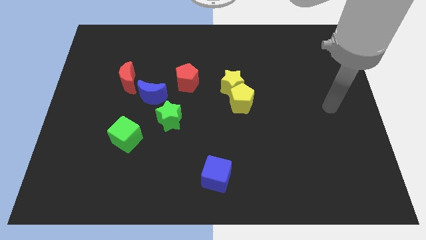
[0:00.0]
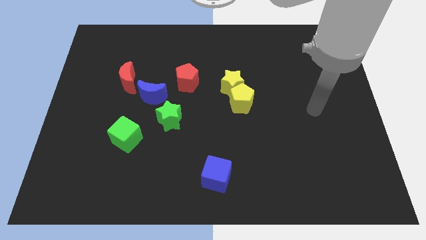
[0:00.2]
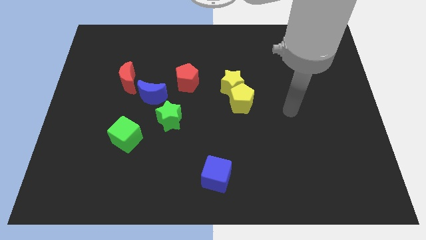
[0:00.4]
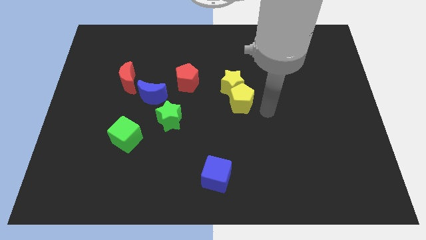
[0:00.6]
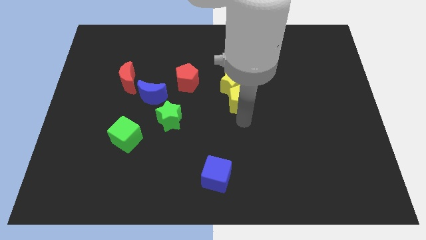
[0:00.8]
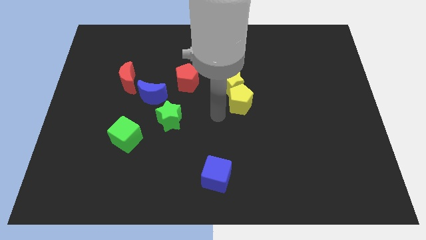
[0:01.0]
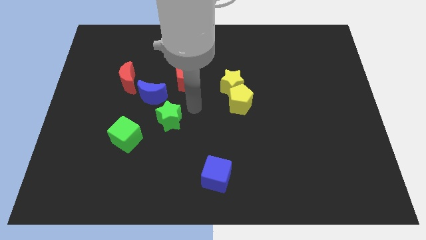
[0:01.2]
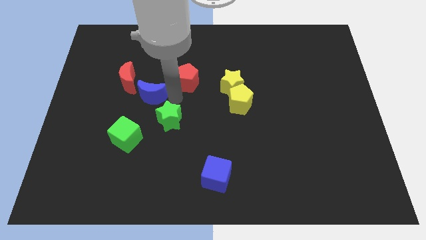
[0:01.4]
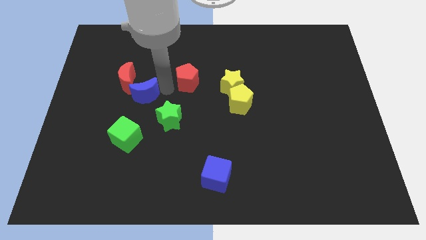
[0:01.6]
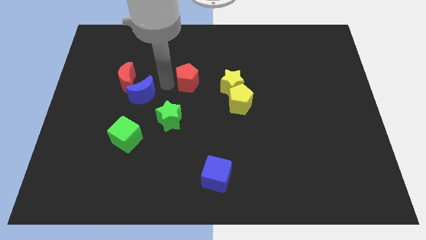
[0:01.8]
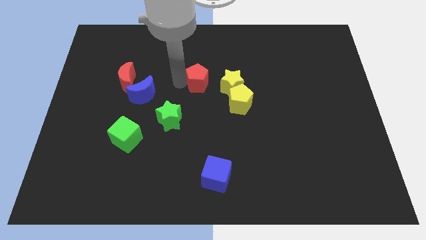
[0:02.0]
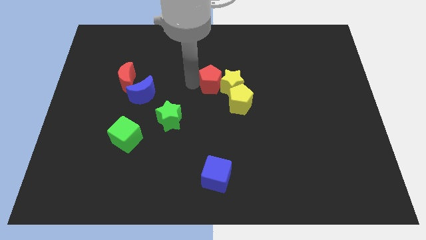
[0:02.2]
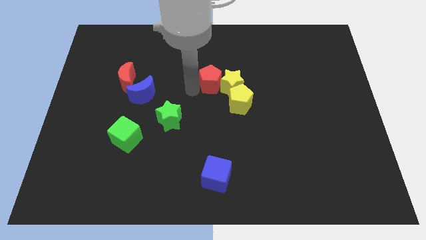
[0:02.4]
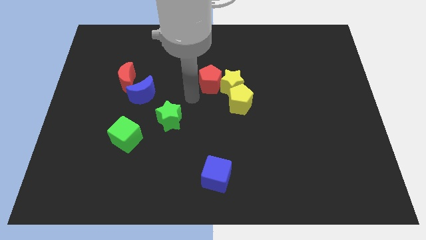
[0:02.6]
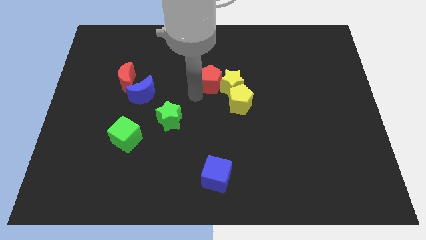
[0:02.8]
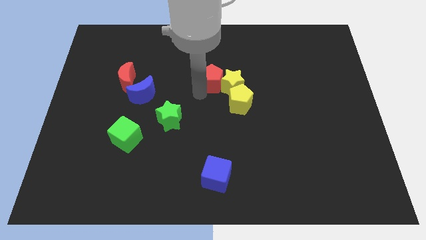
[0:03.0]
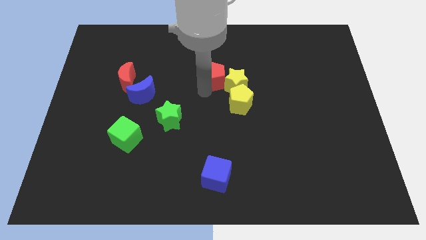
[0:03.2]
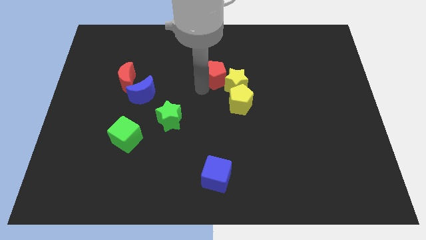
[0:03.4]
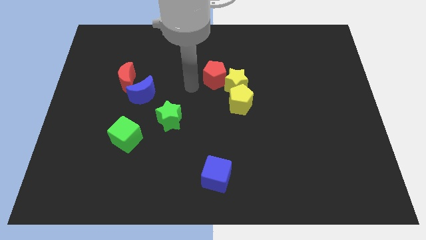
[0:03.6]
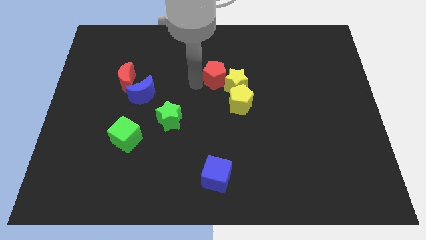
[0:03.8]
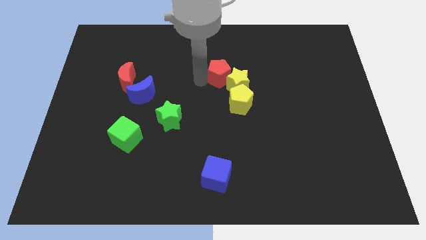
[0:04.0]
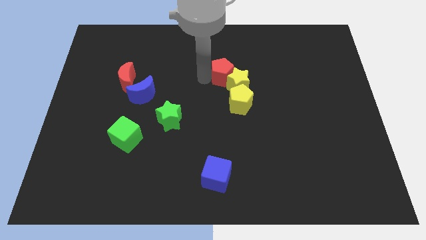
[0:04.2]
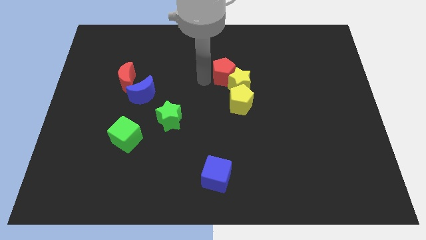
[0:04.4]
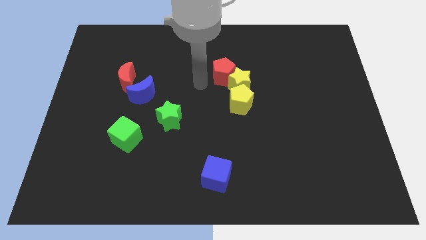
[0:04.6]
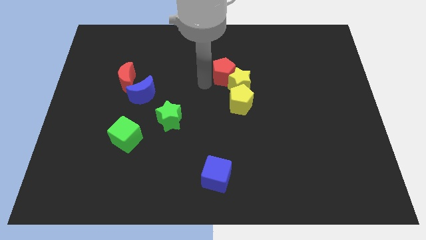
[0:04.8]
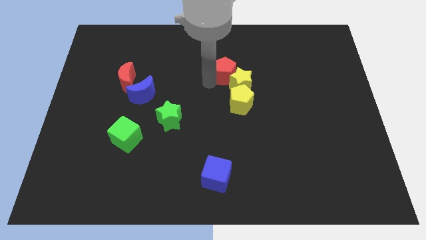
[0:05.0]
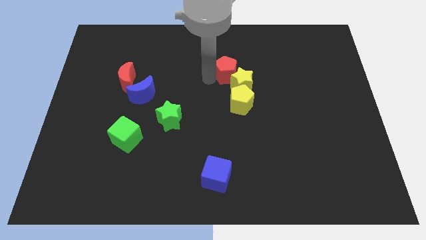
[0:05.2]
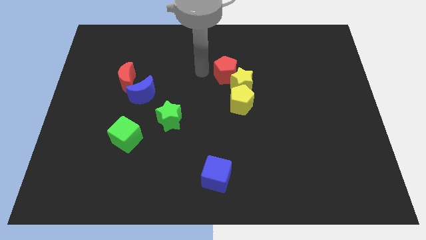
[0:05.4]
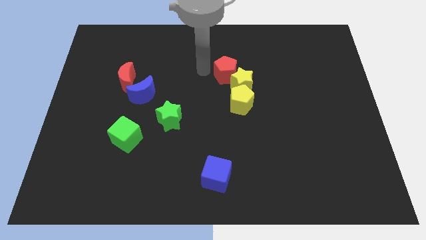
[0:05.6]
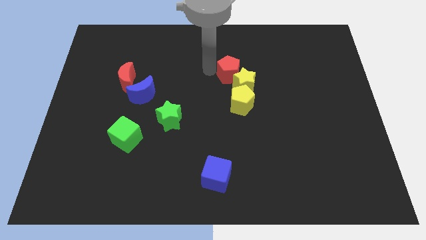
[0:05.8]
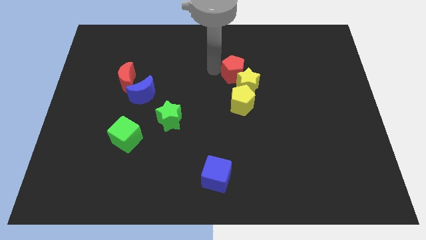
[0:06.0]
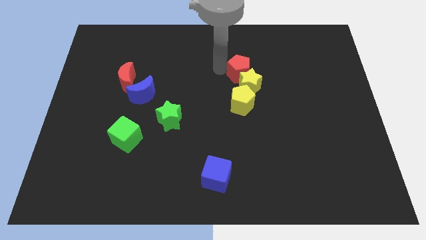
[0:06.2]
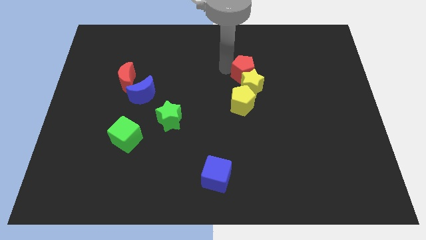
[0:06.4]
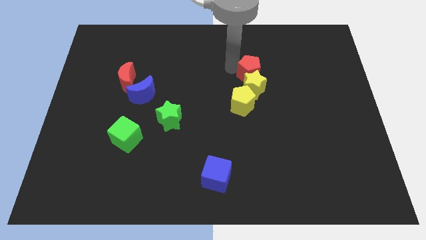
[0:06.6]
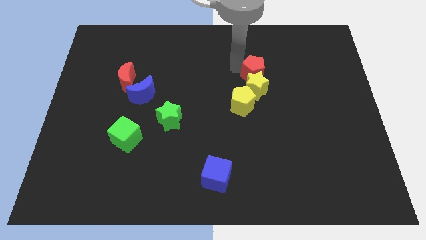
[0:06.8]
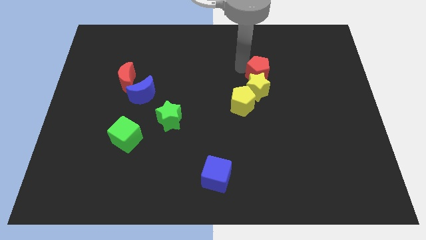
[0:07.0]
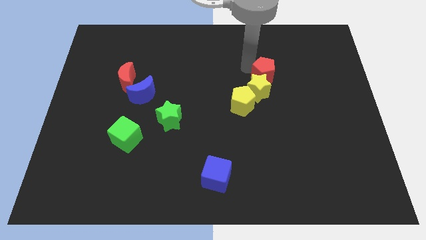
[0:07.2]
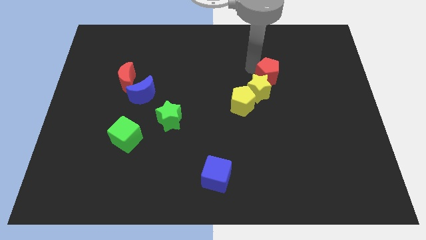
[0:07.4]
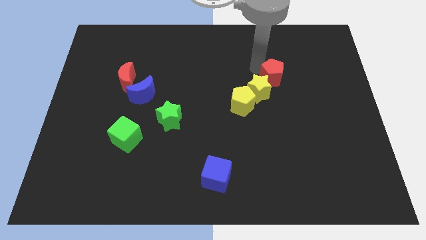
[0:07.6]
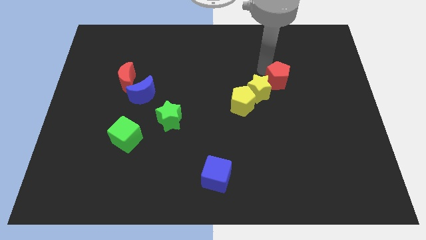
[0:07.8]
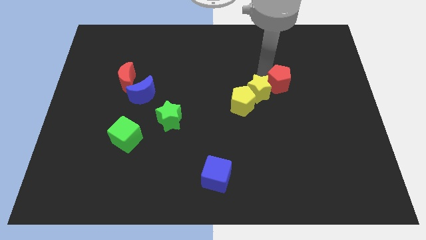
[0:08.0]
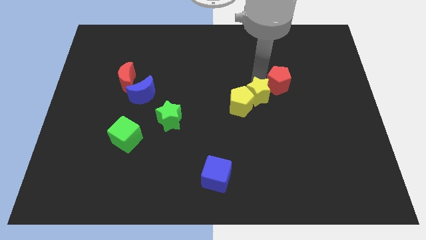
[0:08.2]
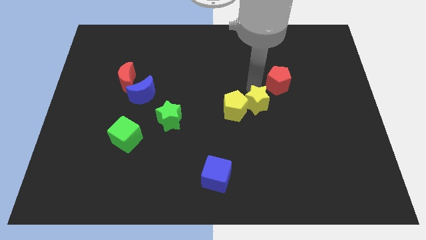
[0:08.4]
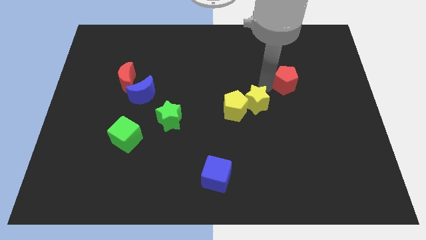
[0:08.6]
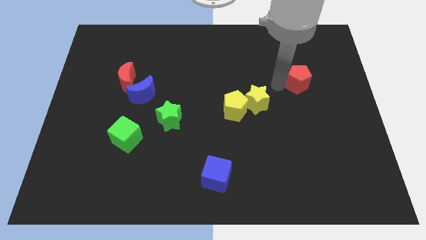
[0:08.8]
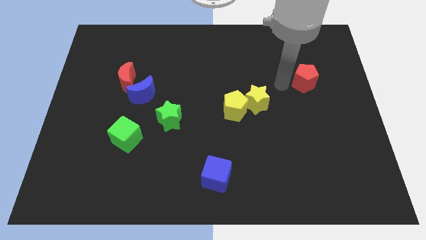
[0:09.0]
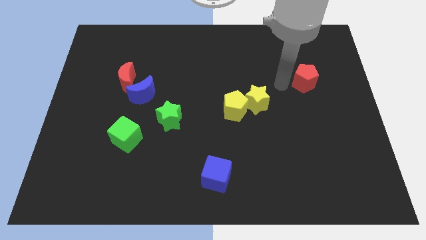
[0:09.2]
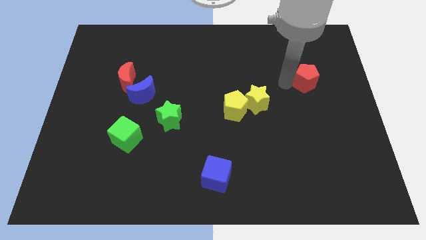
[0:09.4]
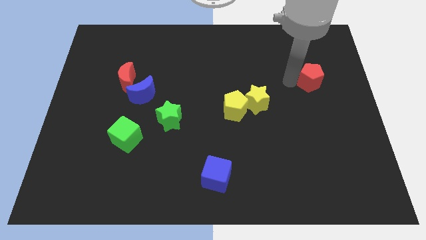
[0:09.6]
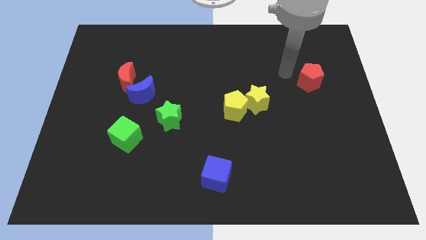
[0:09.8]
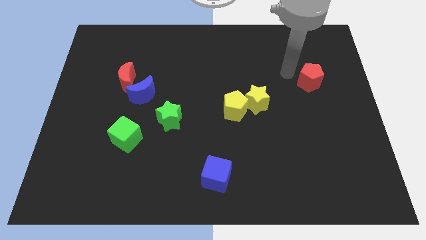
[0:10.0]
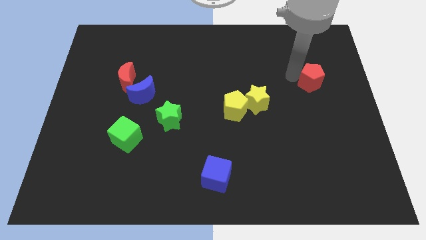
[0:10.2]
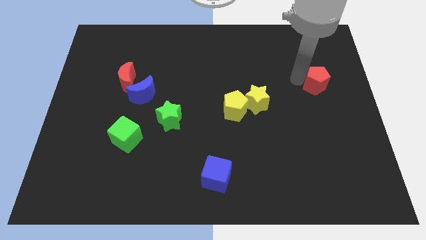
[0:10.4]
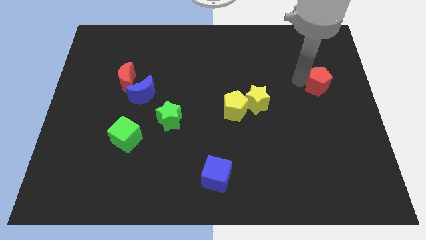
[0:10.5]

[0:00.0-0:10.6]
push the red pentagon to the center right

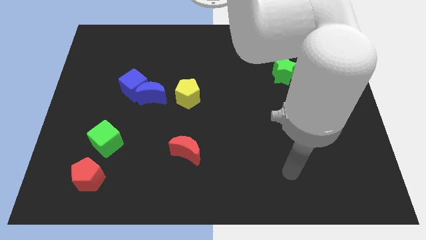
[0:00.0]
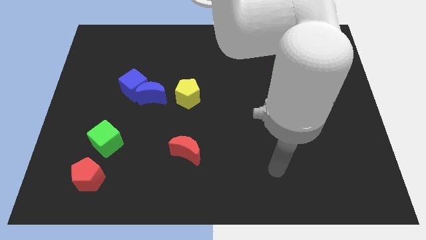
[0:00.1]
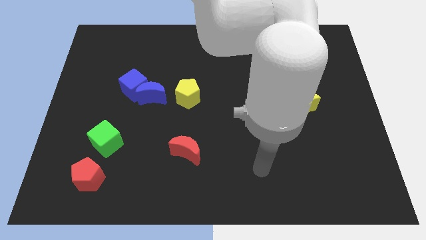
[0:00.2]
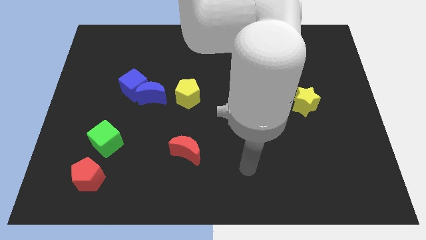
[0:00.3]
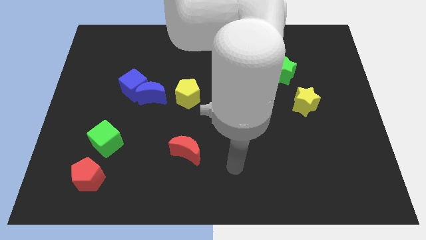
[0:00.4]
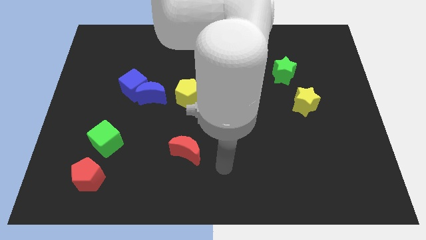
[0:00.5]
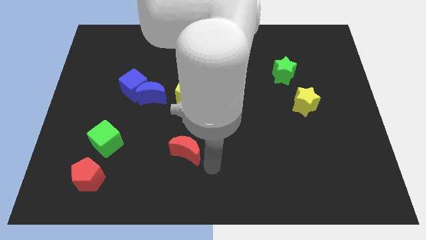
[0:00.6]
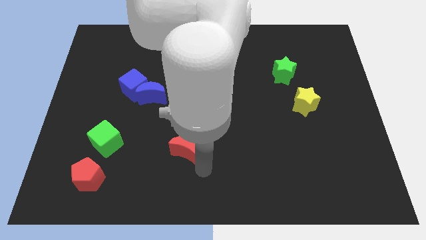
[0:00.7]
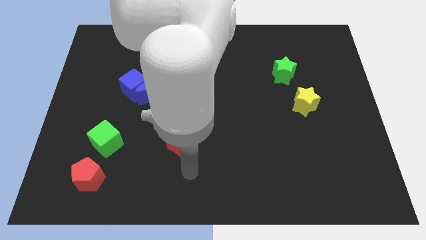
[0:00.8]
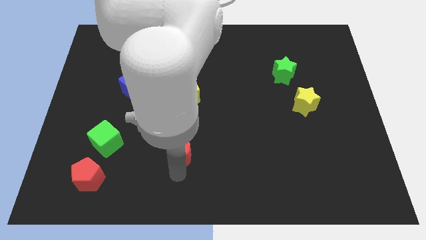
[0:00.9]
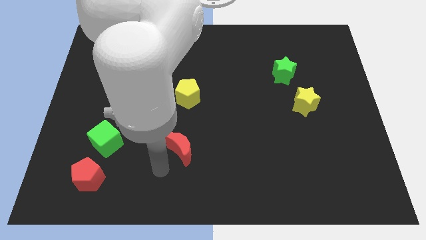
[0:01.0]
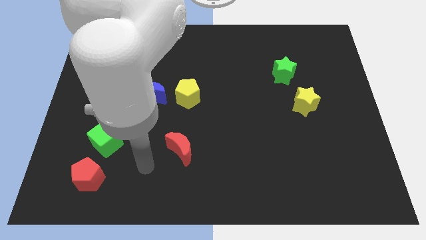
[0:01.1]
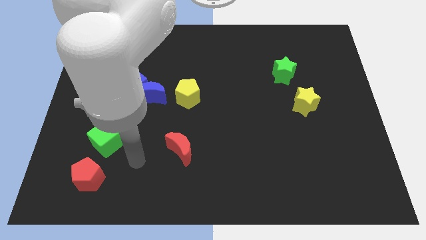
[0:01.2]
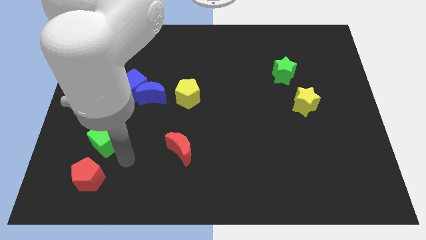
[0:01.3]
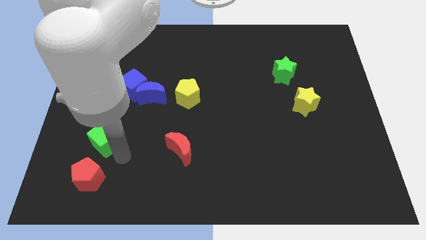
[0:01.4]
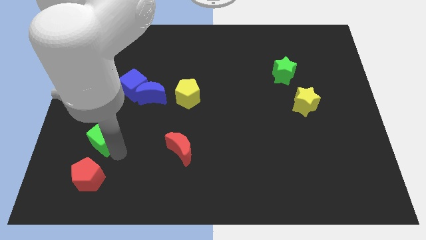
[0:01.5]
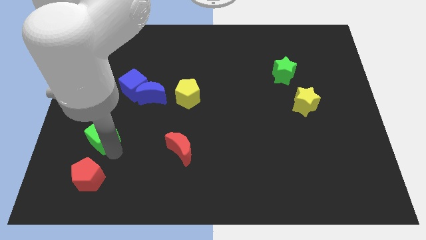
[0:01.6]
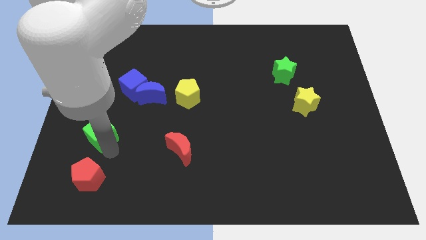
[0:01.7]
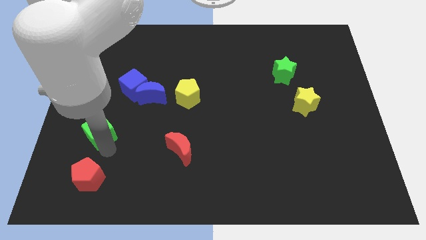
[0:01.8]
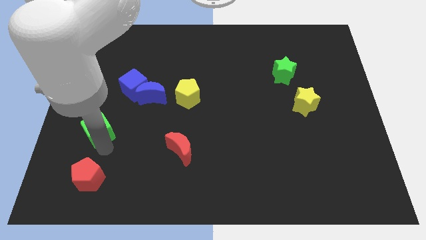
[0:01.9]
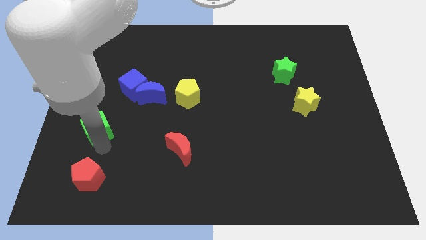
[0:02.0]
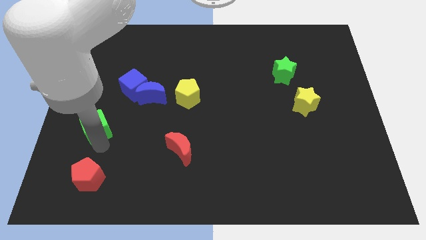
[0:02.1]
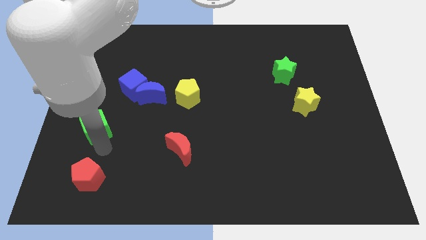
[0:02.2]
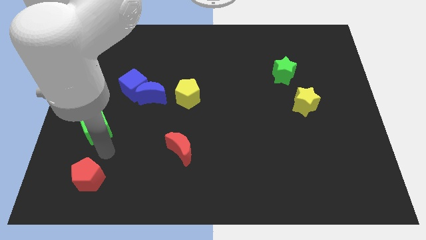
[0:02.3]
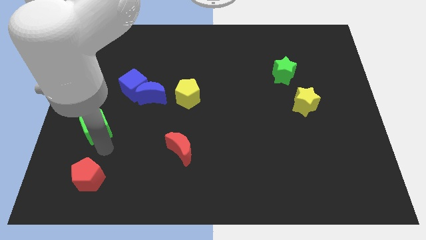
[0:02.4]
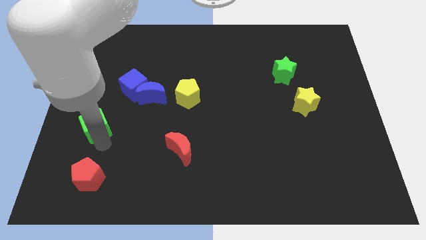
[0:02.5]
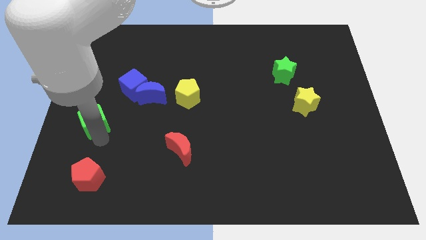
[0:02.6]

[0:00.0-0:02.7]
put the green cube to the center left
